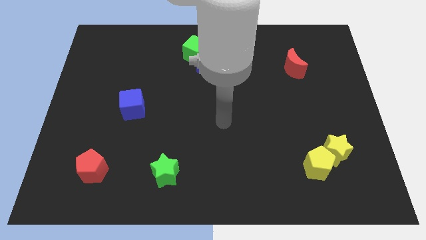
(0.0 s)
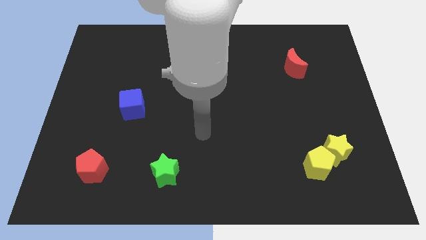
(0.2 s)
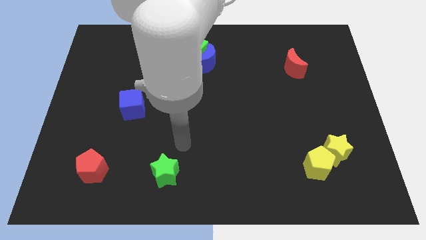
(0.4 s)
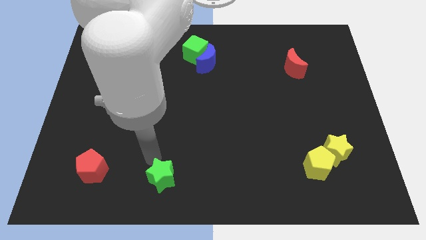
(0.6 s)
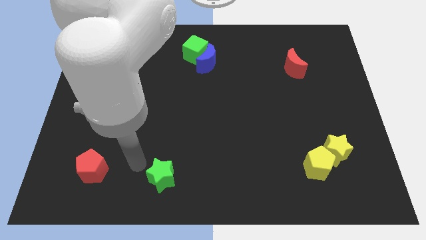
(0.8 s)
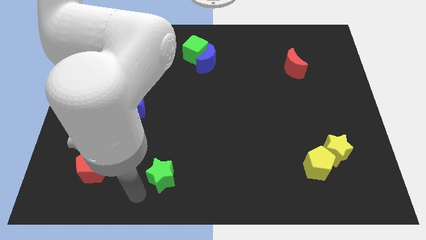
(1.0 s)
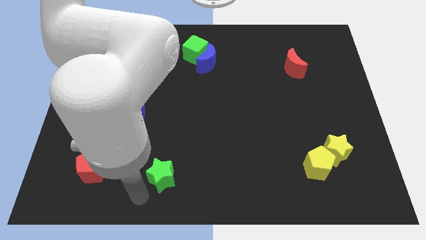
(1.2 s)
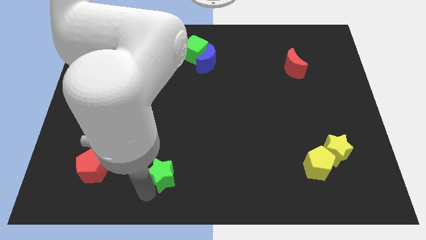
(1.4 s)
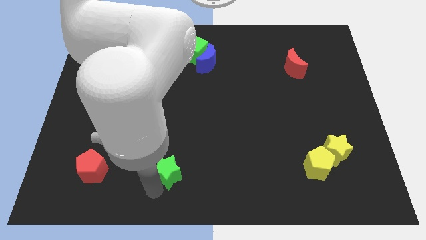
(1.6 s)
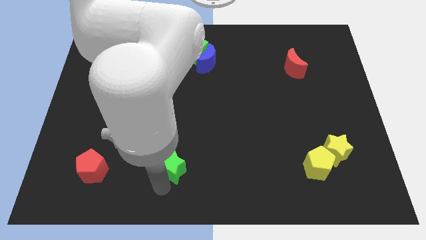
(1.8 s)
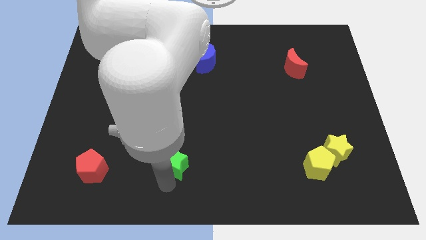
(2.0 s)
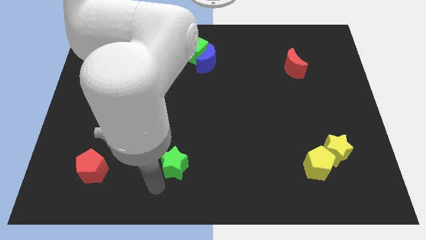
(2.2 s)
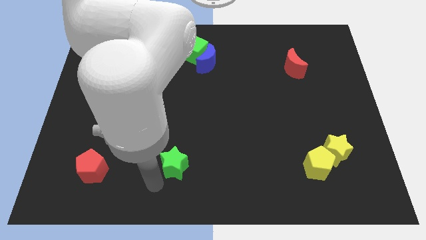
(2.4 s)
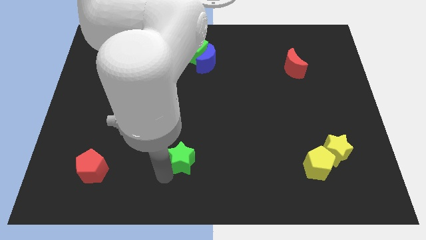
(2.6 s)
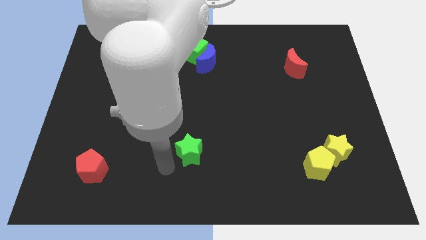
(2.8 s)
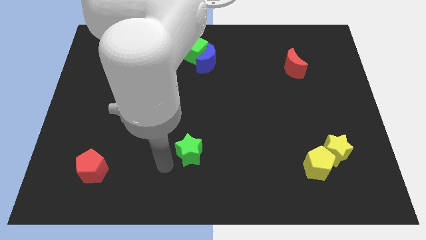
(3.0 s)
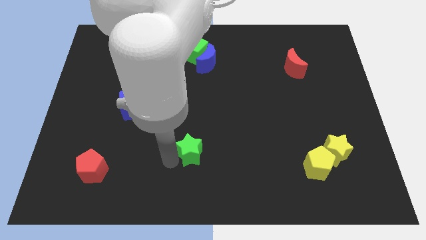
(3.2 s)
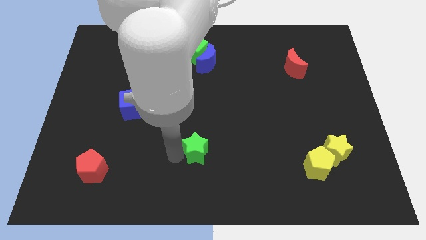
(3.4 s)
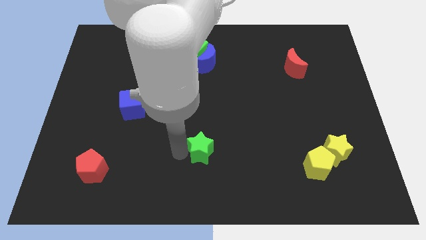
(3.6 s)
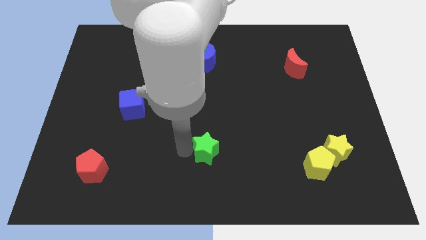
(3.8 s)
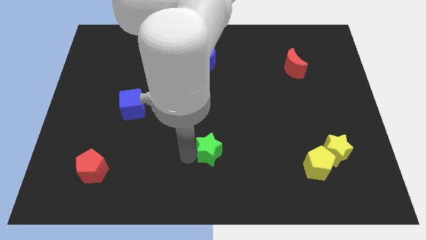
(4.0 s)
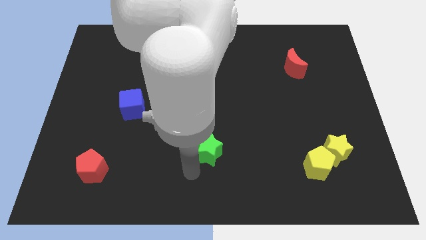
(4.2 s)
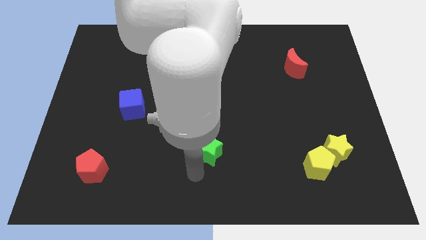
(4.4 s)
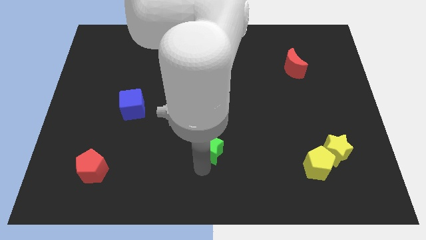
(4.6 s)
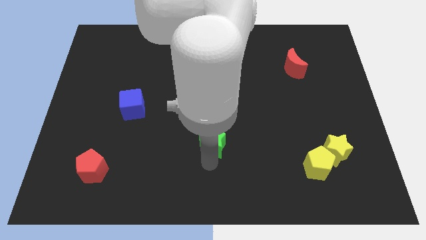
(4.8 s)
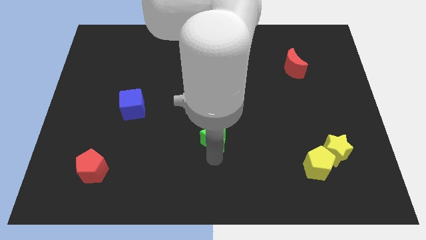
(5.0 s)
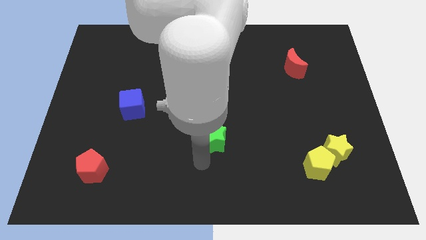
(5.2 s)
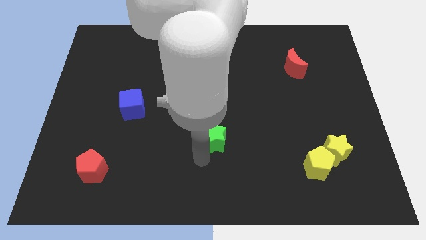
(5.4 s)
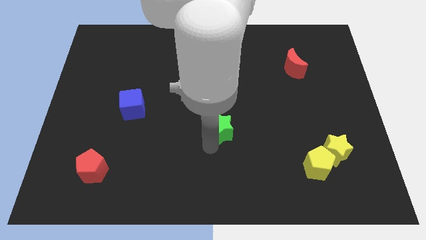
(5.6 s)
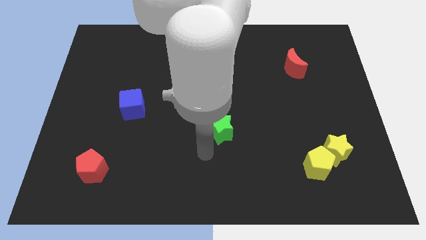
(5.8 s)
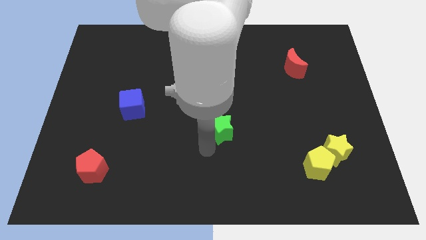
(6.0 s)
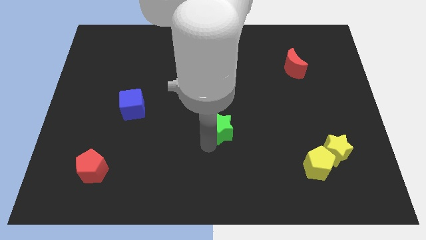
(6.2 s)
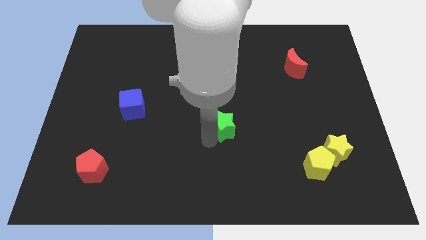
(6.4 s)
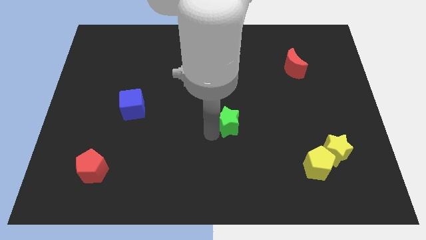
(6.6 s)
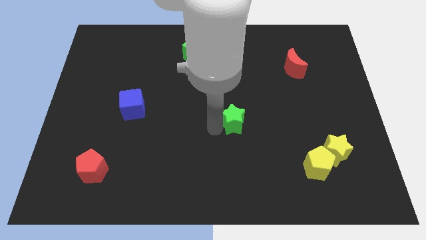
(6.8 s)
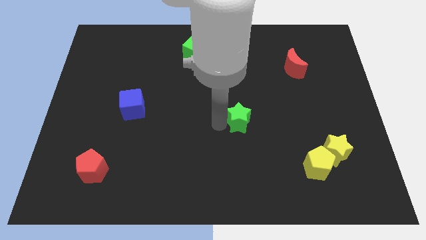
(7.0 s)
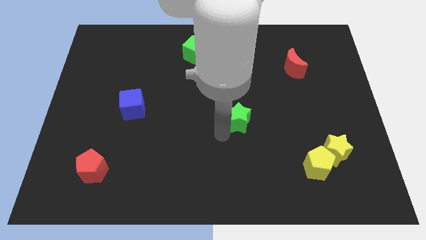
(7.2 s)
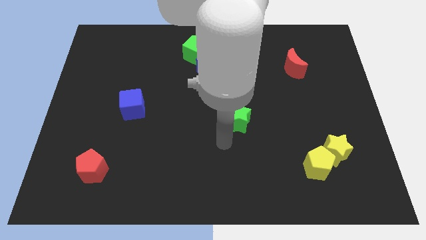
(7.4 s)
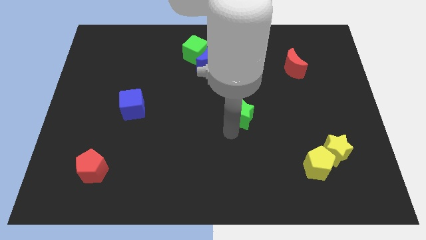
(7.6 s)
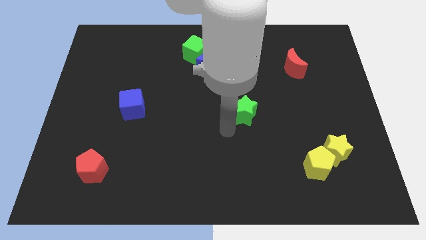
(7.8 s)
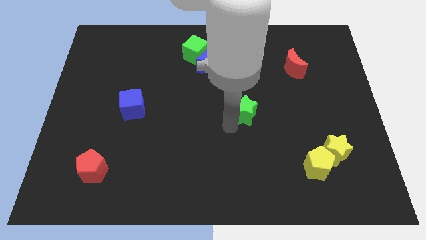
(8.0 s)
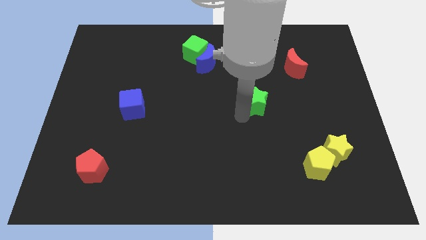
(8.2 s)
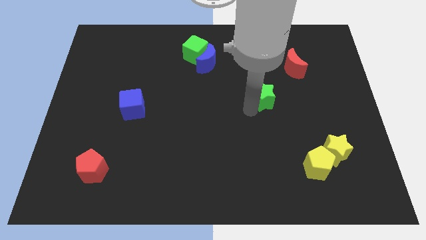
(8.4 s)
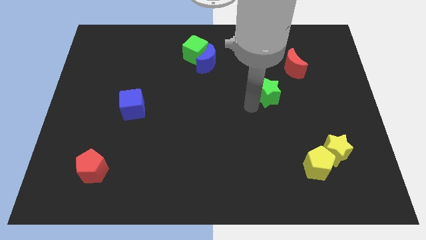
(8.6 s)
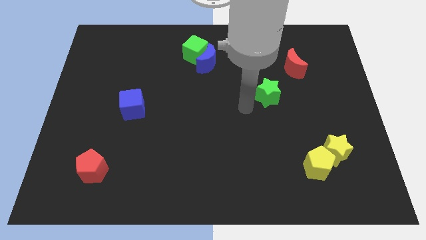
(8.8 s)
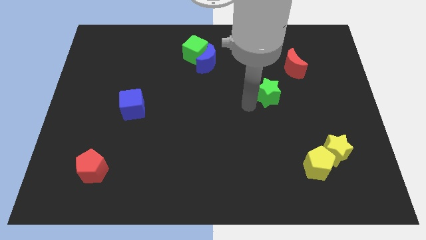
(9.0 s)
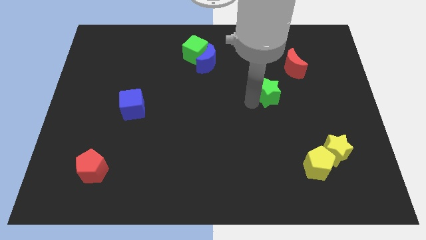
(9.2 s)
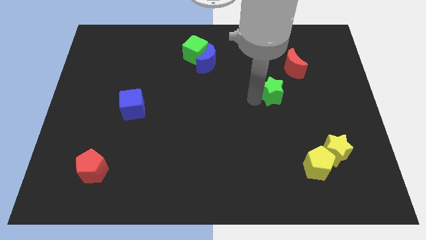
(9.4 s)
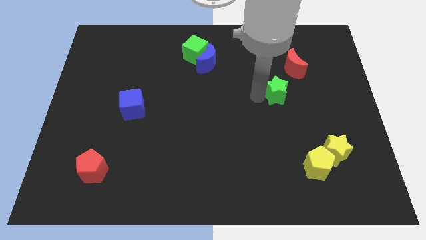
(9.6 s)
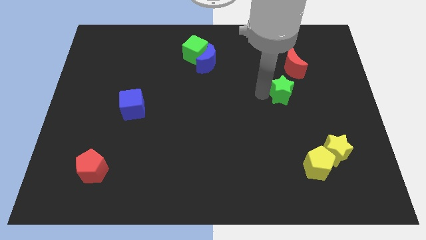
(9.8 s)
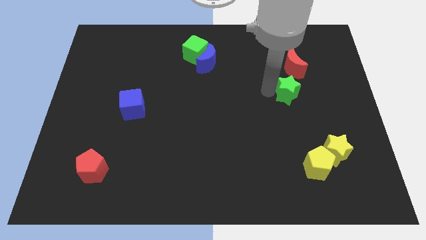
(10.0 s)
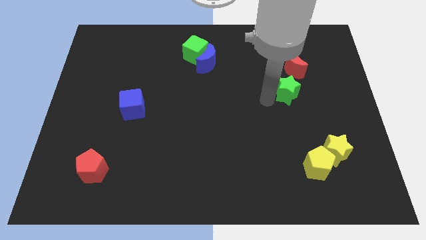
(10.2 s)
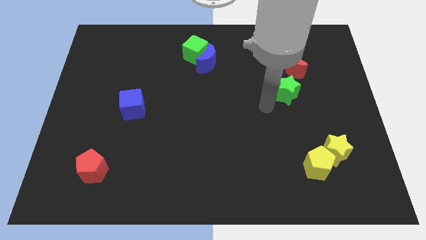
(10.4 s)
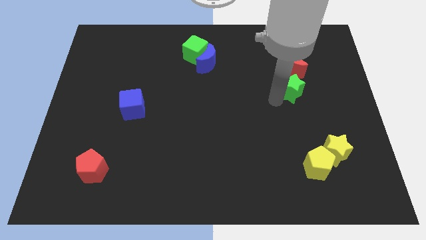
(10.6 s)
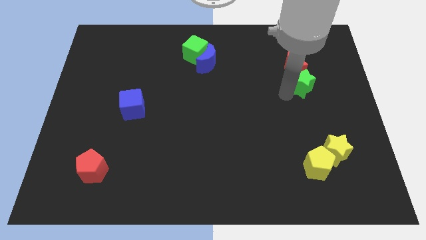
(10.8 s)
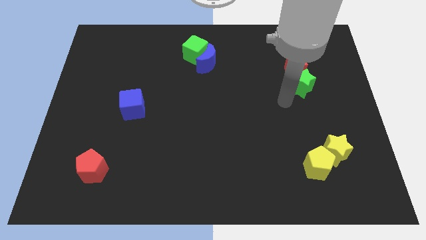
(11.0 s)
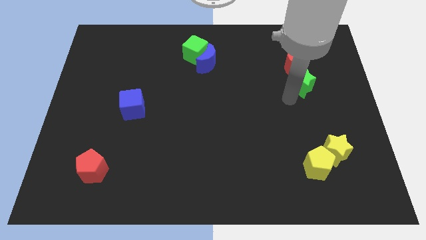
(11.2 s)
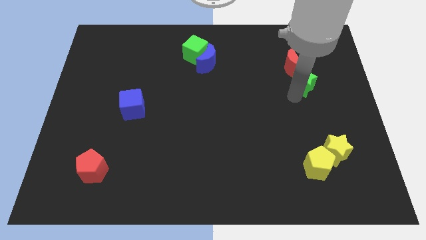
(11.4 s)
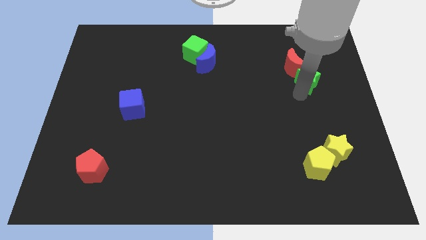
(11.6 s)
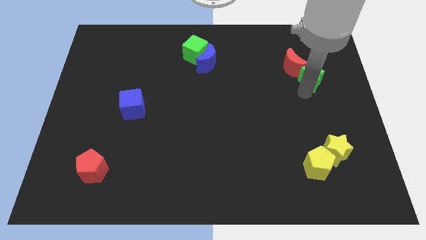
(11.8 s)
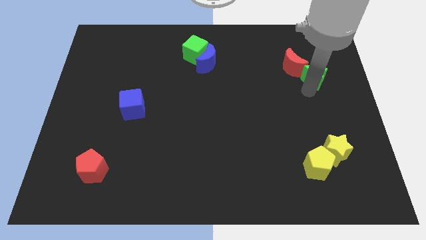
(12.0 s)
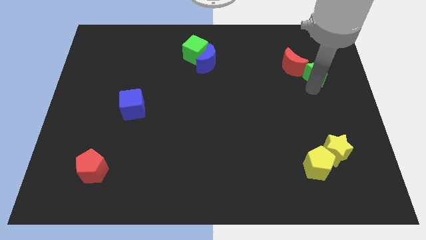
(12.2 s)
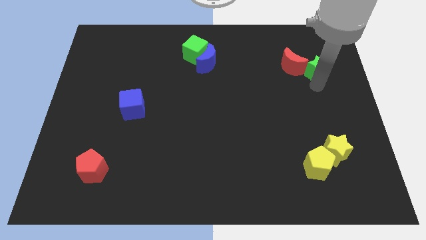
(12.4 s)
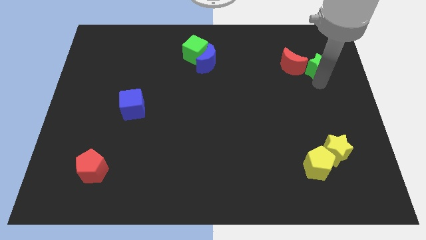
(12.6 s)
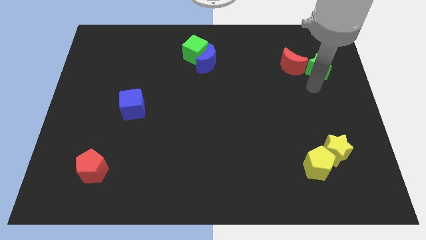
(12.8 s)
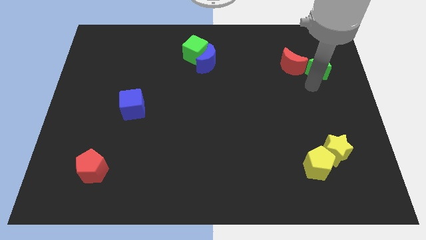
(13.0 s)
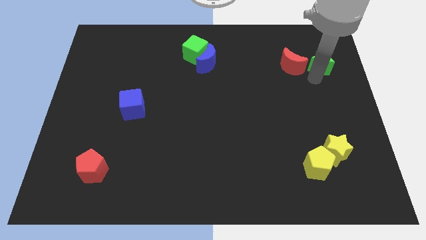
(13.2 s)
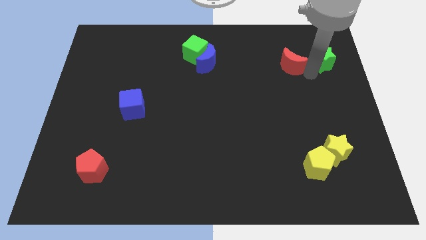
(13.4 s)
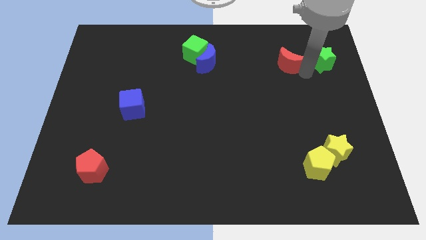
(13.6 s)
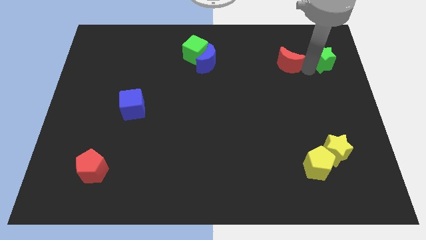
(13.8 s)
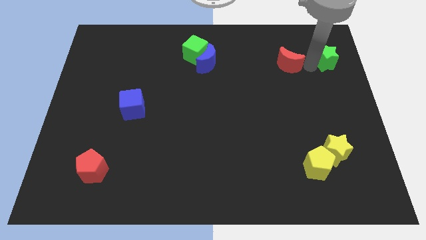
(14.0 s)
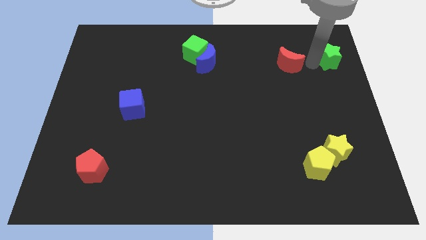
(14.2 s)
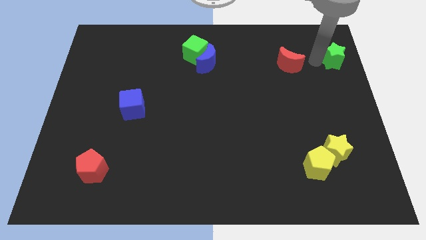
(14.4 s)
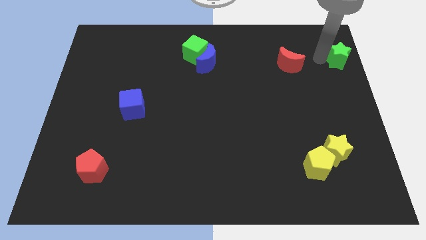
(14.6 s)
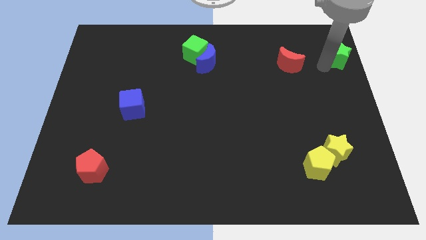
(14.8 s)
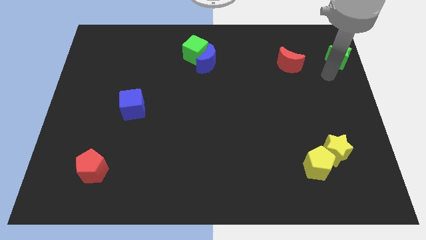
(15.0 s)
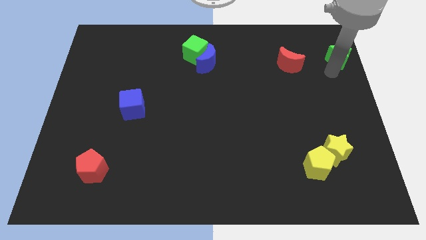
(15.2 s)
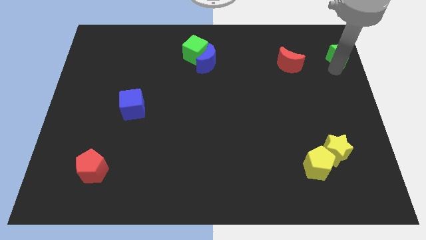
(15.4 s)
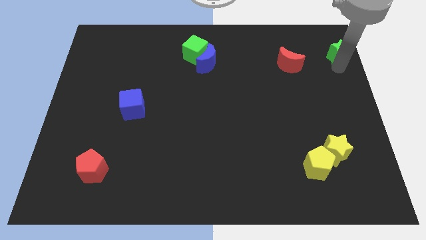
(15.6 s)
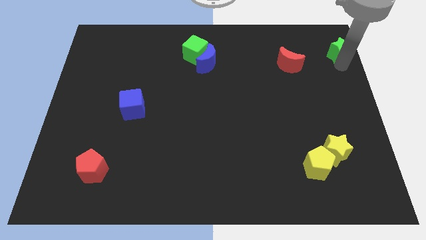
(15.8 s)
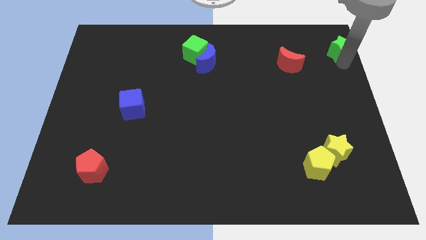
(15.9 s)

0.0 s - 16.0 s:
push the green star to the top right corner
